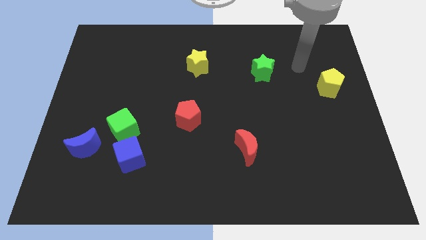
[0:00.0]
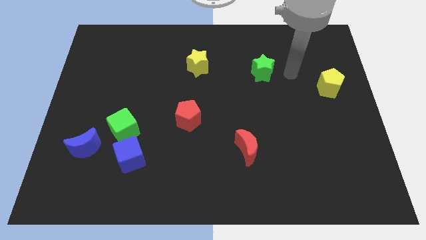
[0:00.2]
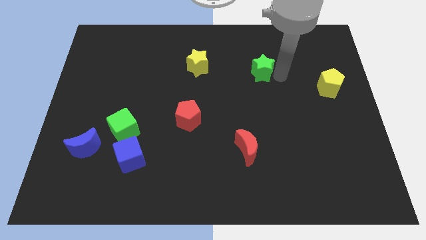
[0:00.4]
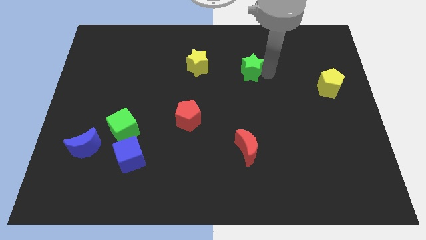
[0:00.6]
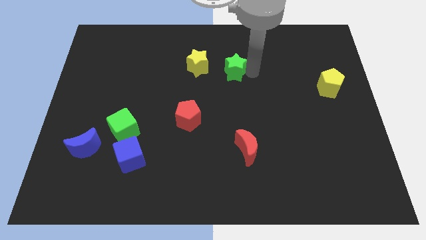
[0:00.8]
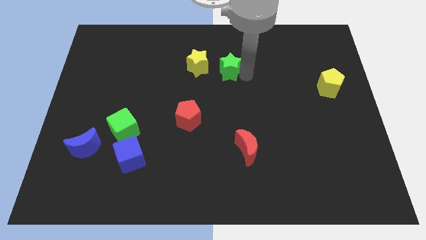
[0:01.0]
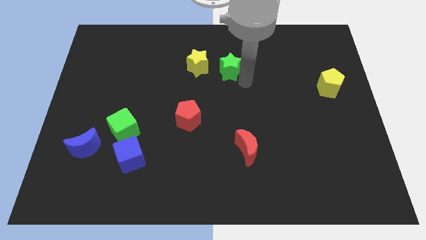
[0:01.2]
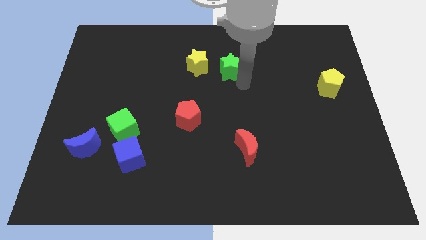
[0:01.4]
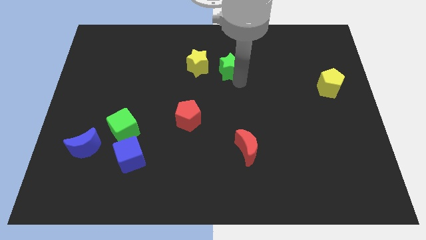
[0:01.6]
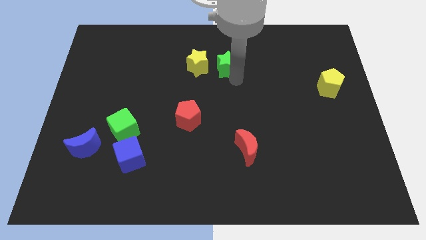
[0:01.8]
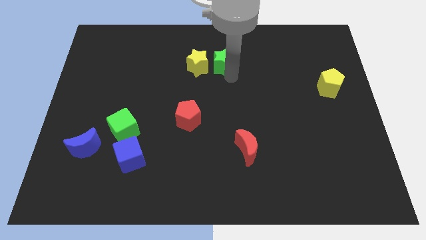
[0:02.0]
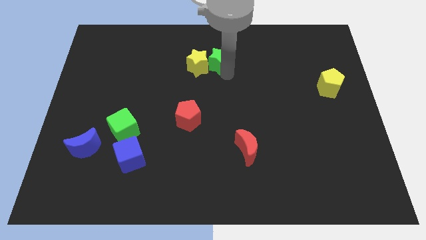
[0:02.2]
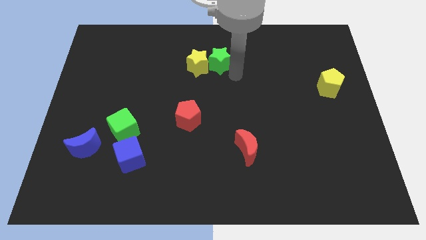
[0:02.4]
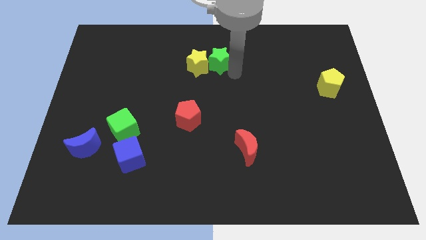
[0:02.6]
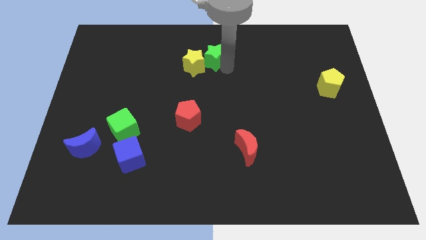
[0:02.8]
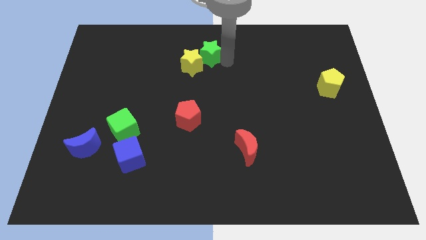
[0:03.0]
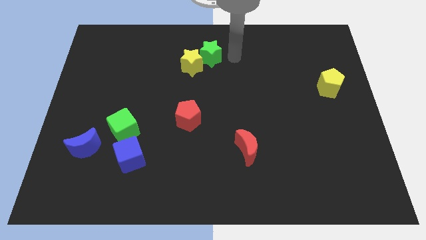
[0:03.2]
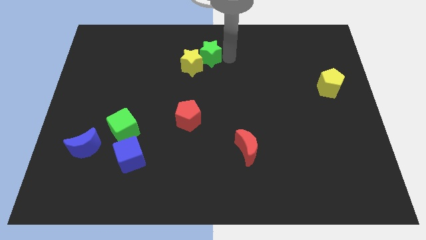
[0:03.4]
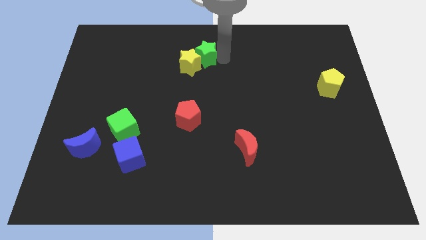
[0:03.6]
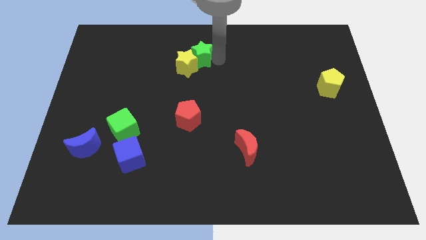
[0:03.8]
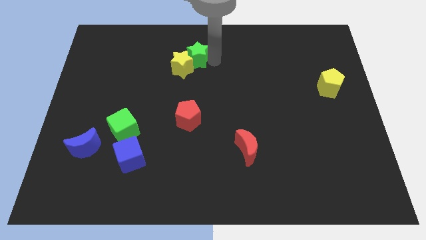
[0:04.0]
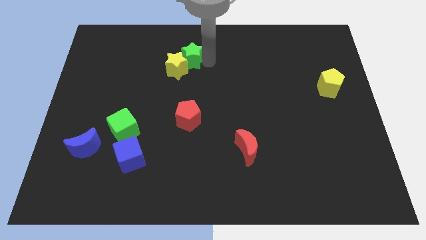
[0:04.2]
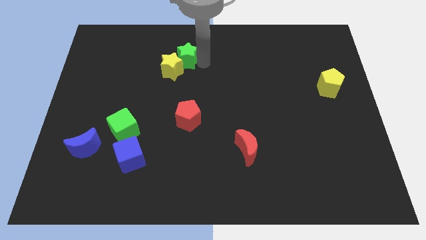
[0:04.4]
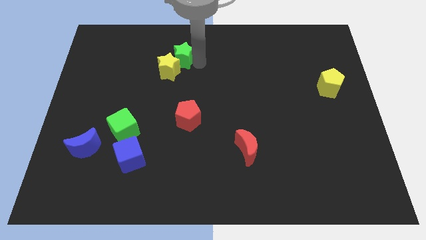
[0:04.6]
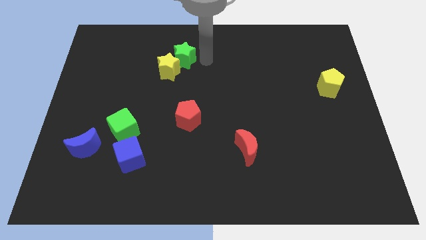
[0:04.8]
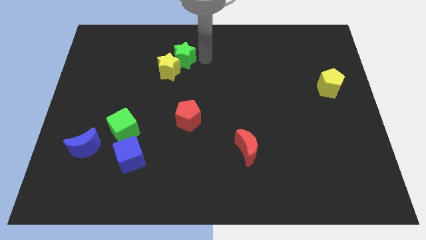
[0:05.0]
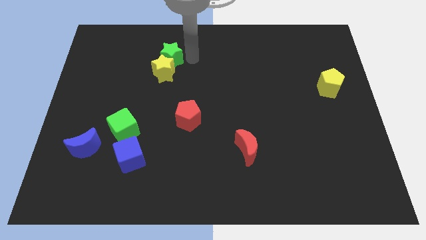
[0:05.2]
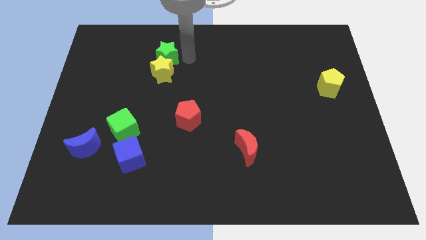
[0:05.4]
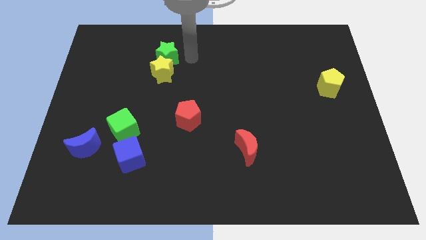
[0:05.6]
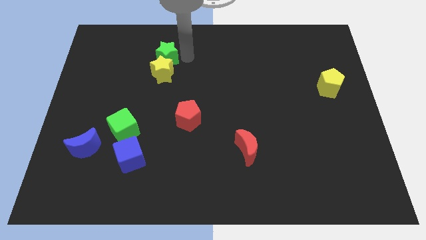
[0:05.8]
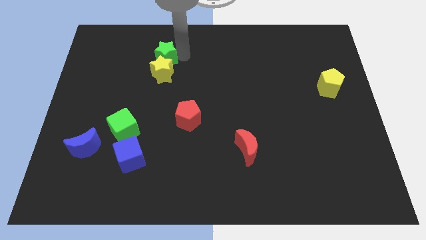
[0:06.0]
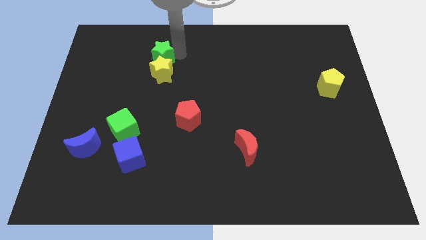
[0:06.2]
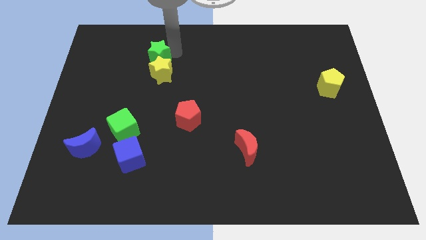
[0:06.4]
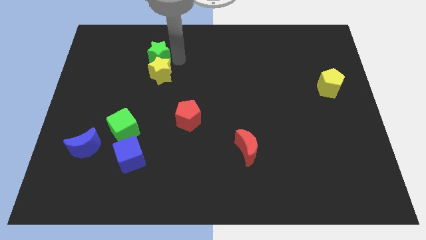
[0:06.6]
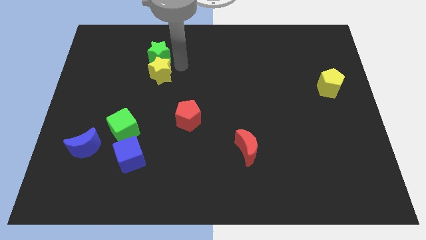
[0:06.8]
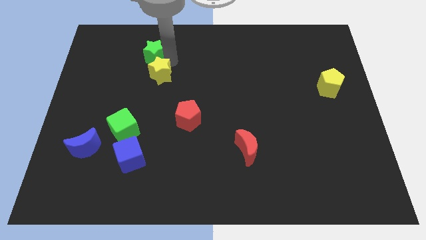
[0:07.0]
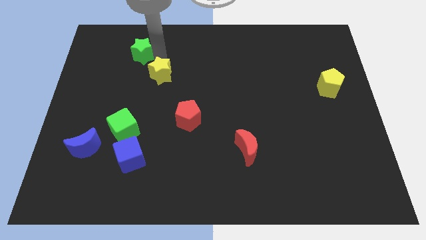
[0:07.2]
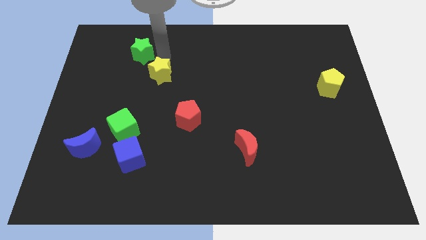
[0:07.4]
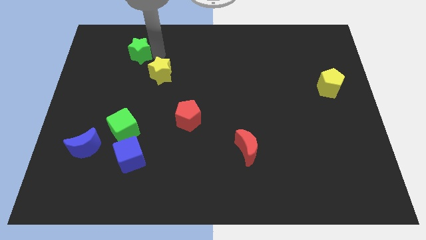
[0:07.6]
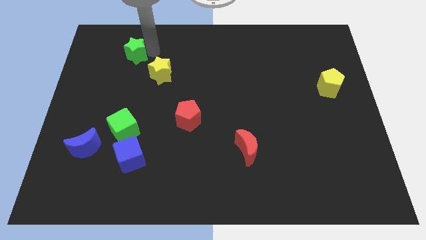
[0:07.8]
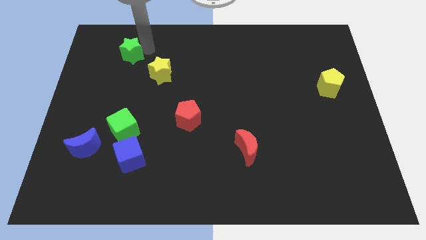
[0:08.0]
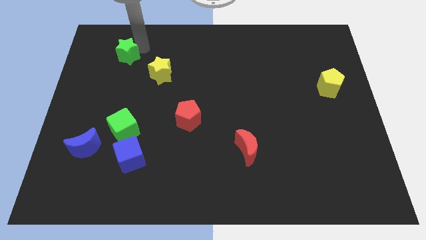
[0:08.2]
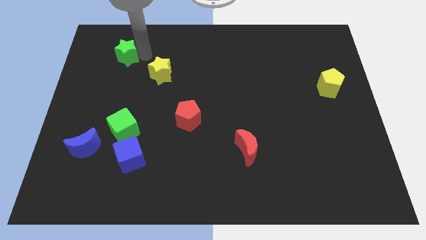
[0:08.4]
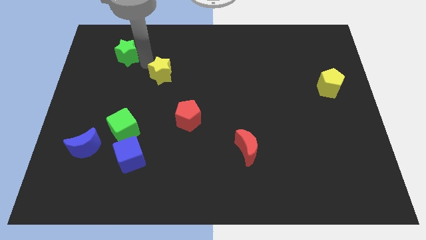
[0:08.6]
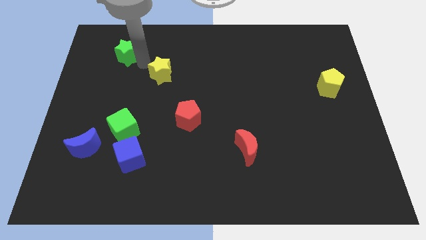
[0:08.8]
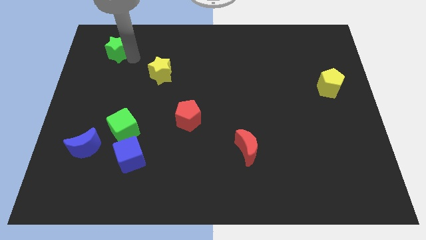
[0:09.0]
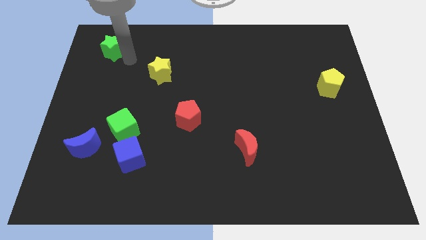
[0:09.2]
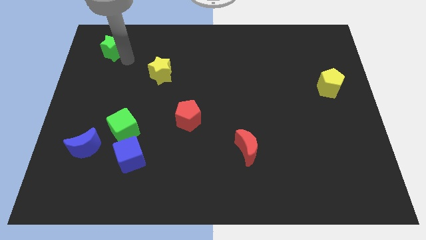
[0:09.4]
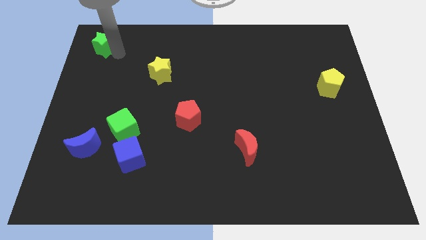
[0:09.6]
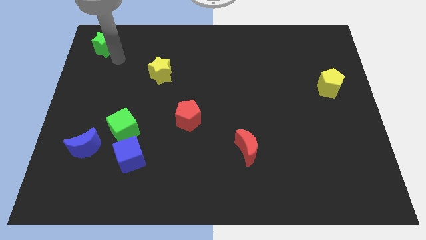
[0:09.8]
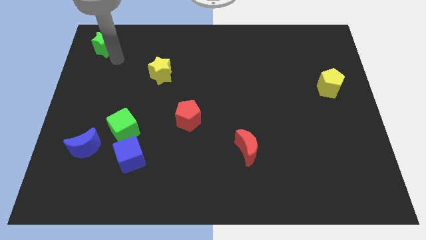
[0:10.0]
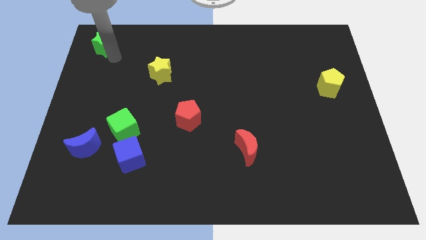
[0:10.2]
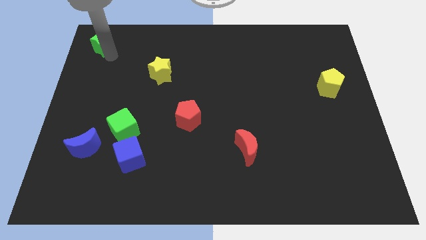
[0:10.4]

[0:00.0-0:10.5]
move the green star to the upper left corner
